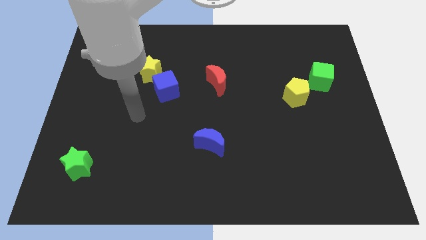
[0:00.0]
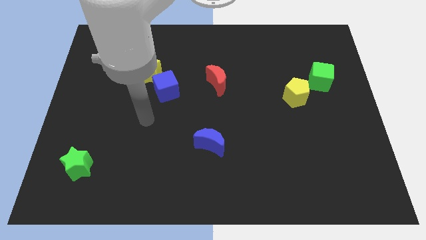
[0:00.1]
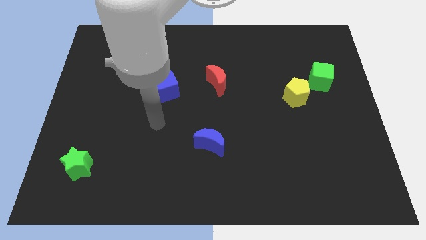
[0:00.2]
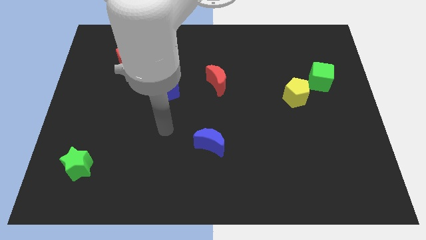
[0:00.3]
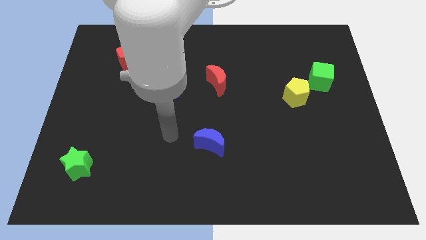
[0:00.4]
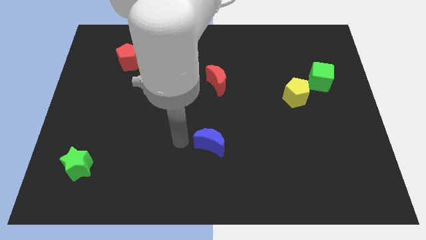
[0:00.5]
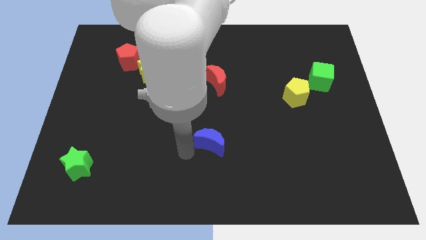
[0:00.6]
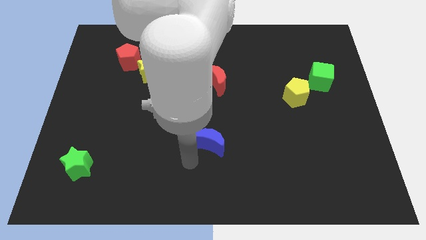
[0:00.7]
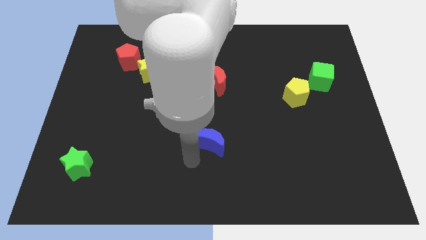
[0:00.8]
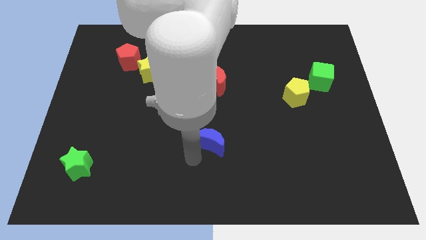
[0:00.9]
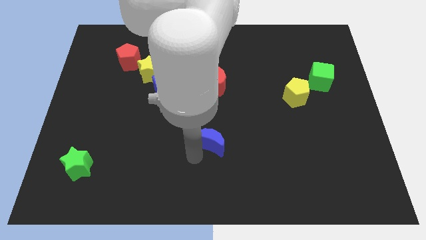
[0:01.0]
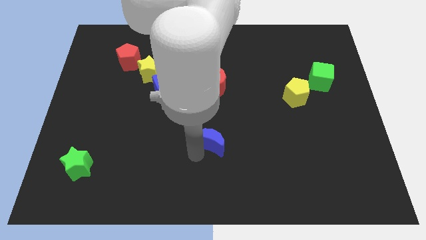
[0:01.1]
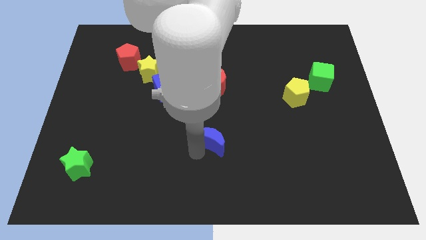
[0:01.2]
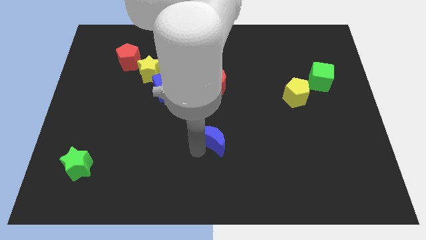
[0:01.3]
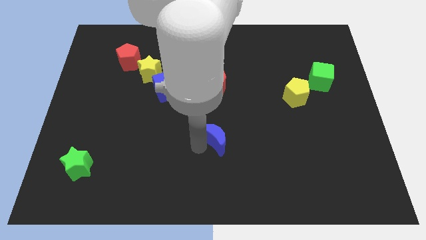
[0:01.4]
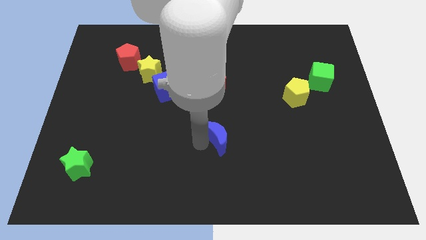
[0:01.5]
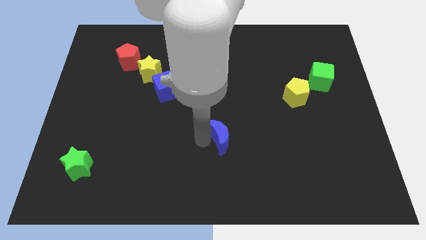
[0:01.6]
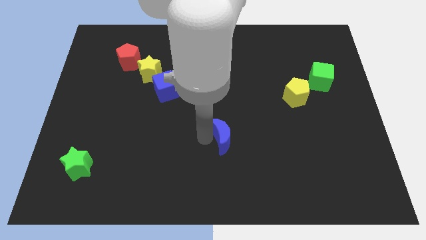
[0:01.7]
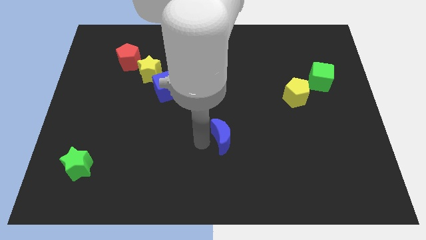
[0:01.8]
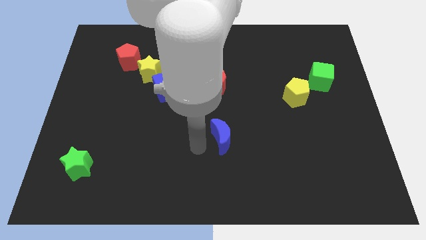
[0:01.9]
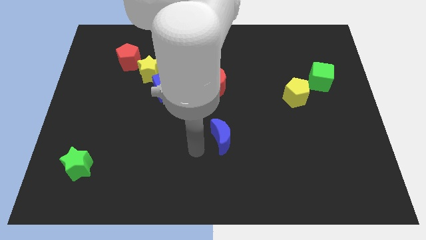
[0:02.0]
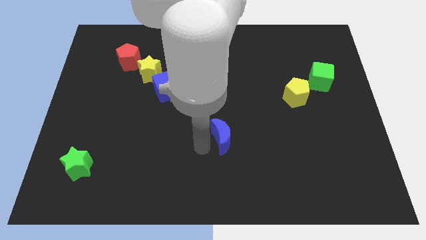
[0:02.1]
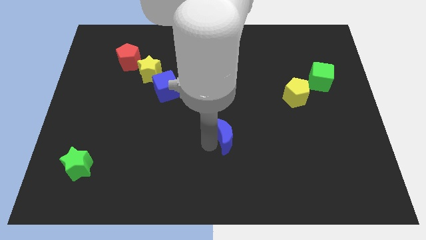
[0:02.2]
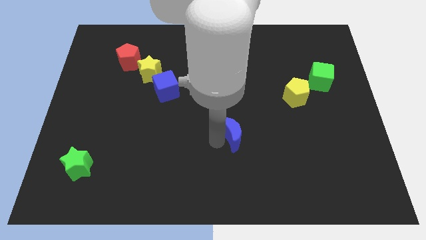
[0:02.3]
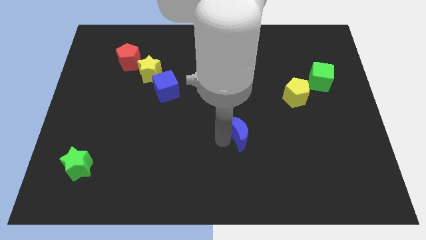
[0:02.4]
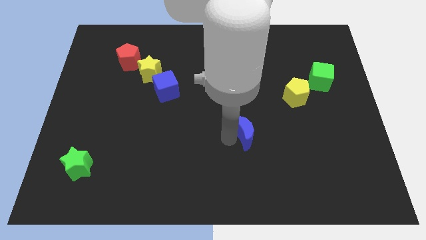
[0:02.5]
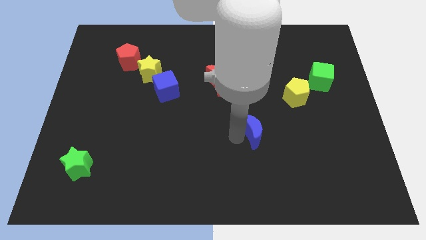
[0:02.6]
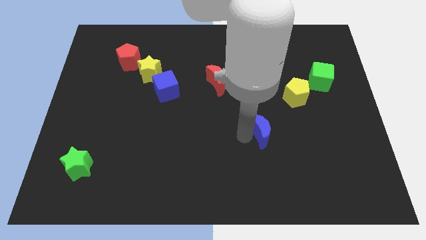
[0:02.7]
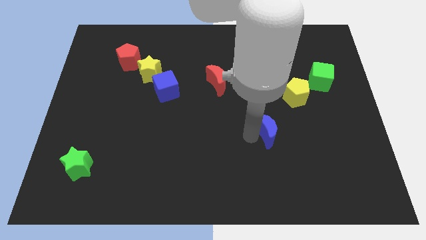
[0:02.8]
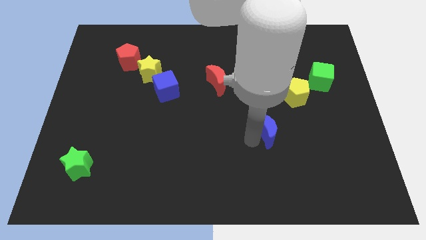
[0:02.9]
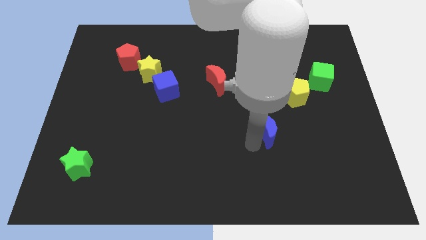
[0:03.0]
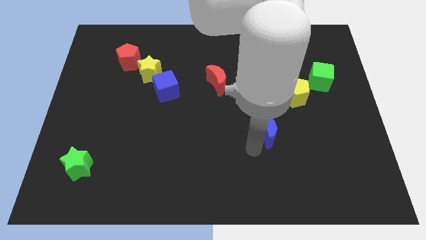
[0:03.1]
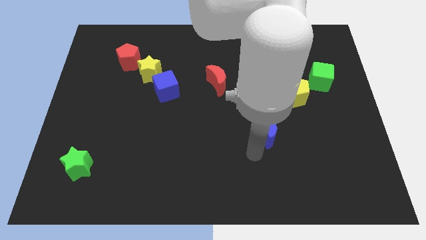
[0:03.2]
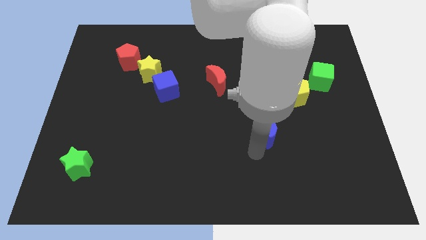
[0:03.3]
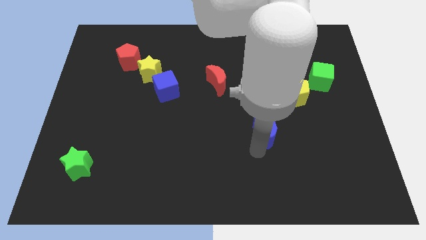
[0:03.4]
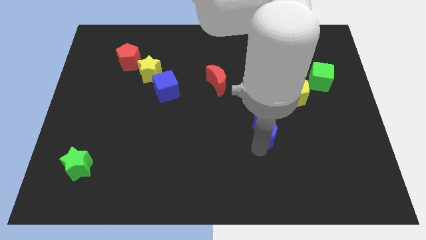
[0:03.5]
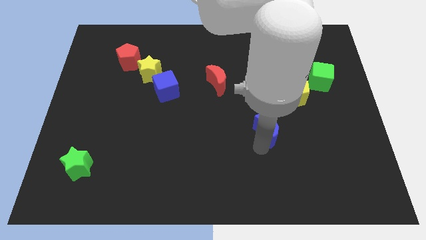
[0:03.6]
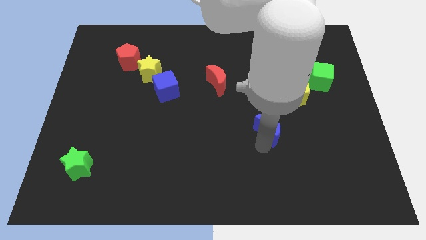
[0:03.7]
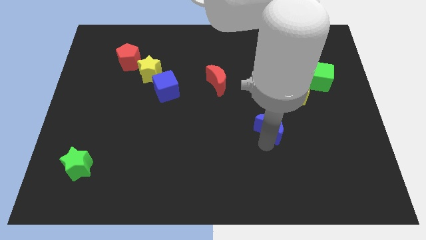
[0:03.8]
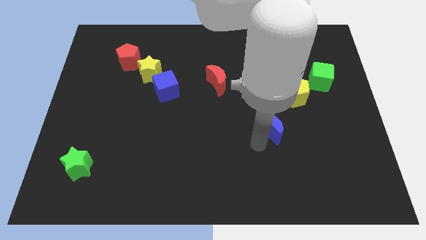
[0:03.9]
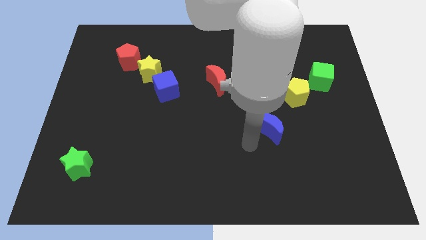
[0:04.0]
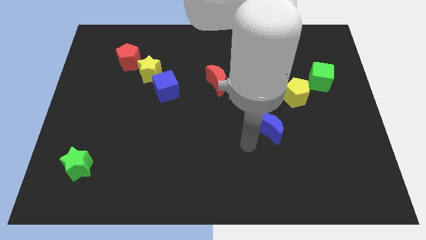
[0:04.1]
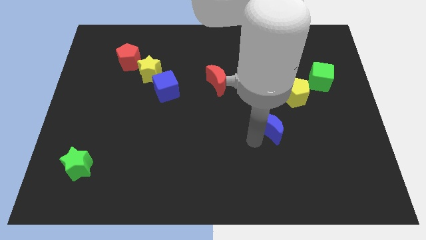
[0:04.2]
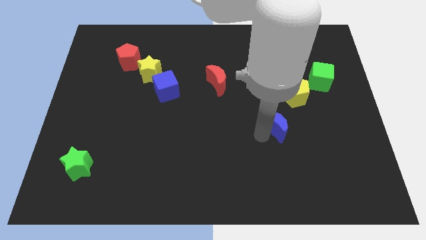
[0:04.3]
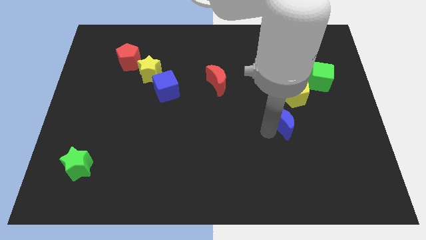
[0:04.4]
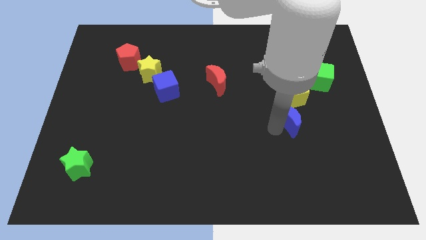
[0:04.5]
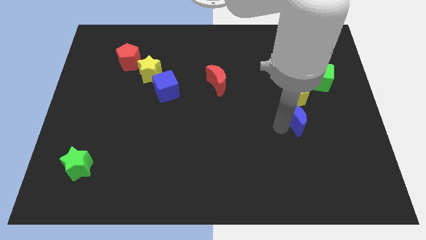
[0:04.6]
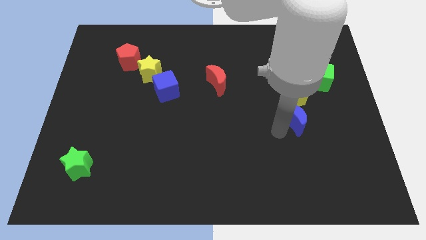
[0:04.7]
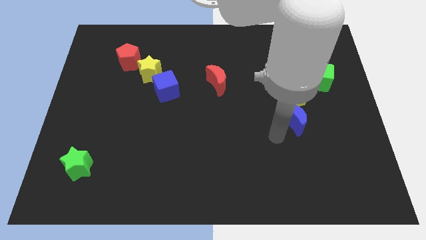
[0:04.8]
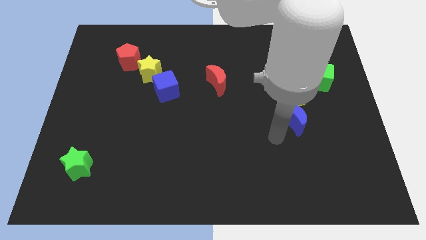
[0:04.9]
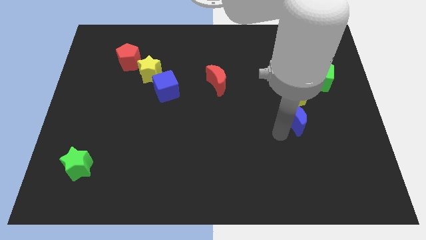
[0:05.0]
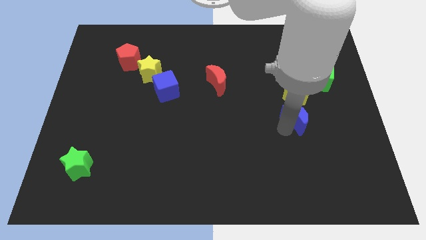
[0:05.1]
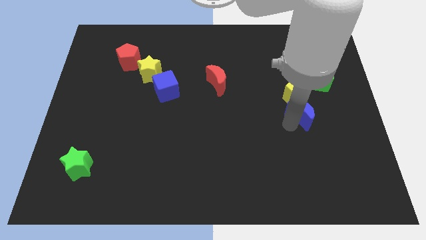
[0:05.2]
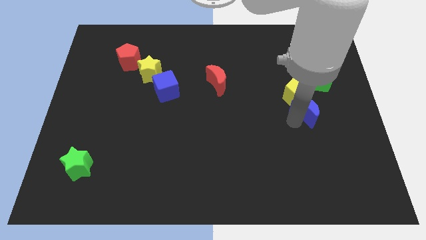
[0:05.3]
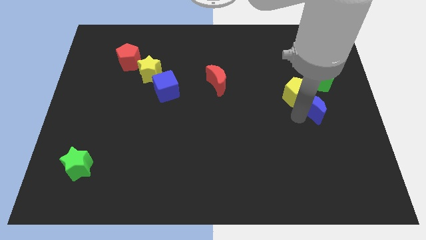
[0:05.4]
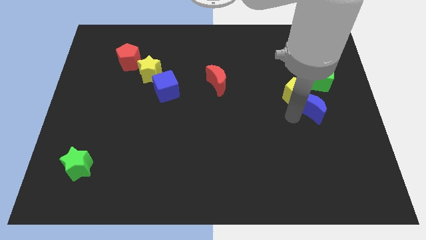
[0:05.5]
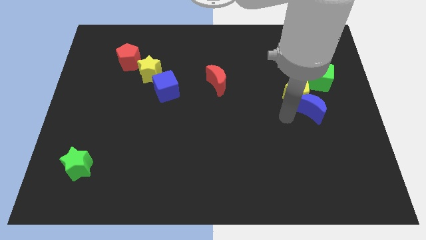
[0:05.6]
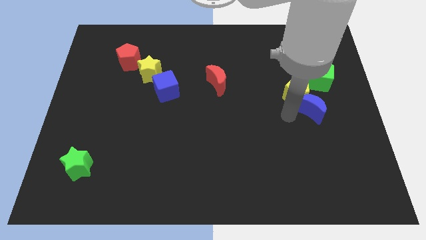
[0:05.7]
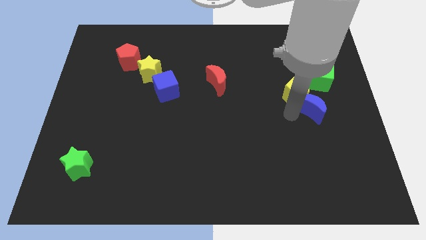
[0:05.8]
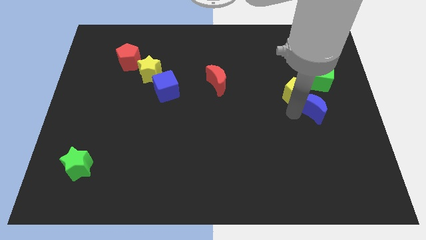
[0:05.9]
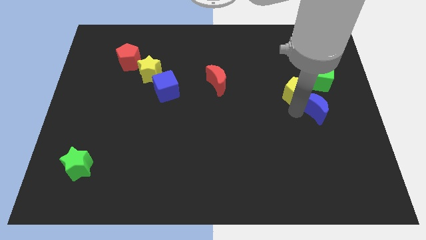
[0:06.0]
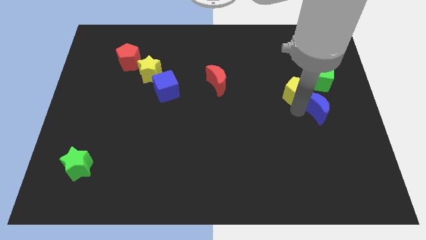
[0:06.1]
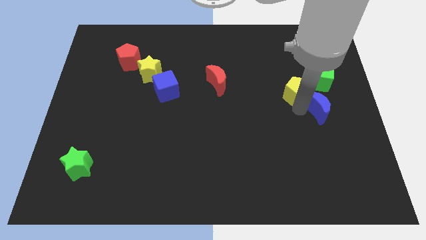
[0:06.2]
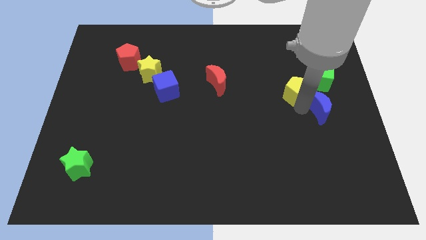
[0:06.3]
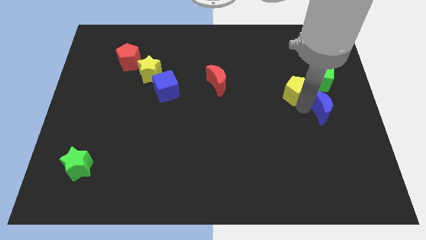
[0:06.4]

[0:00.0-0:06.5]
push the blue moon to the right side of the board
